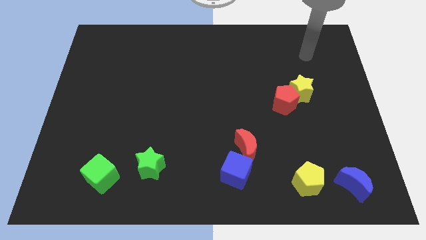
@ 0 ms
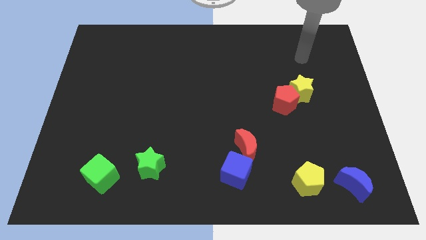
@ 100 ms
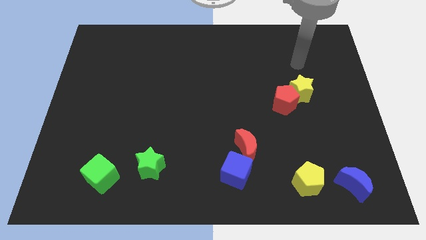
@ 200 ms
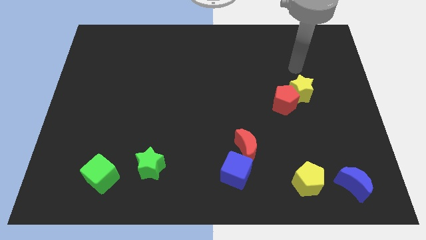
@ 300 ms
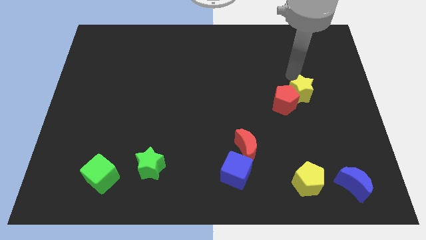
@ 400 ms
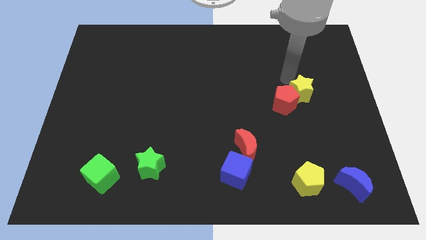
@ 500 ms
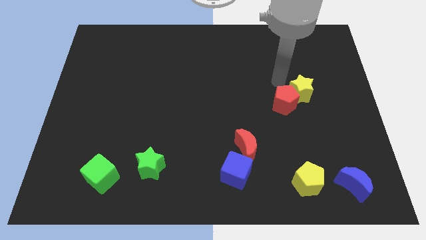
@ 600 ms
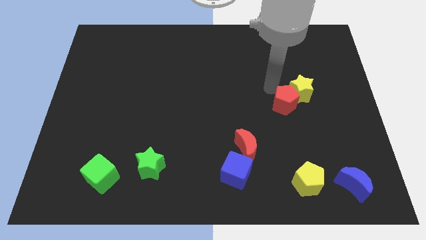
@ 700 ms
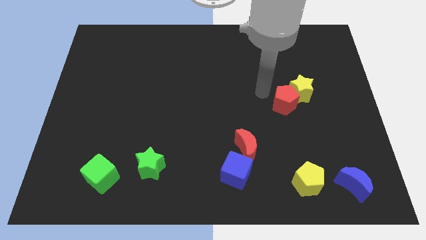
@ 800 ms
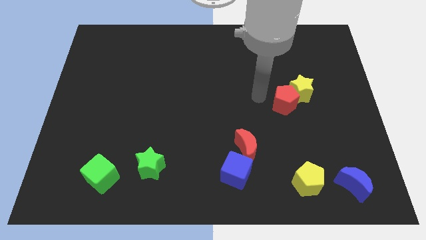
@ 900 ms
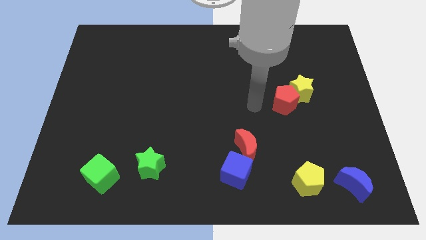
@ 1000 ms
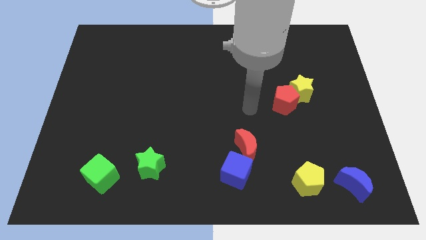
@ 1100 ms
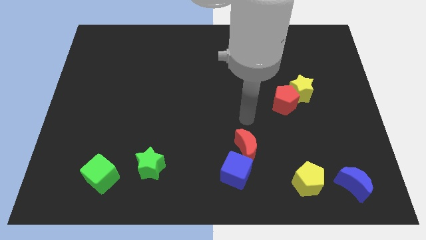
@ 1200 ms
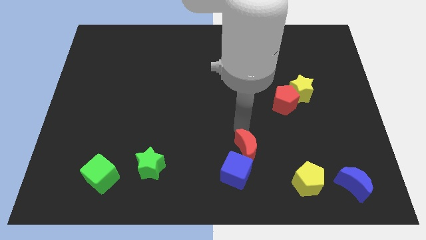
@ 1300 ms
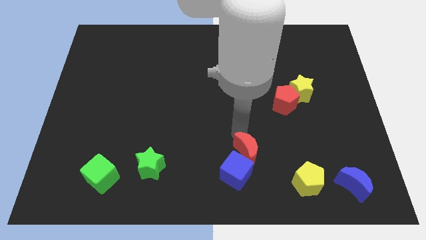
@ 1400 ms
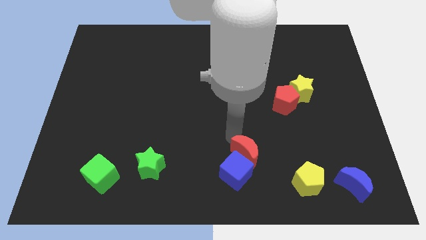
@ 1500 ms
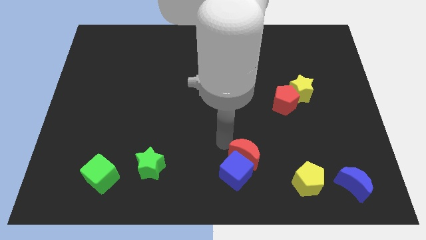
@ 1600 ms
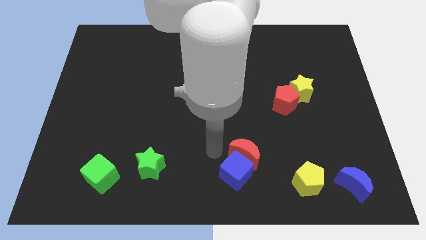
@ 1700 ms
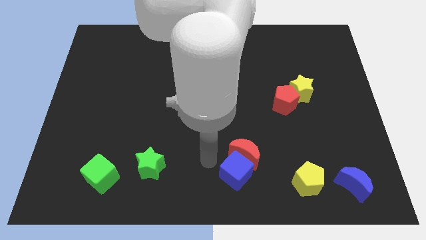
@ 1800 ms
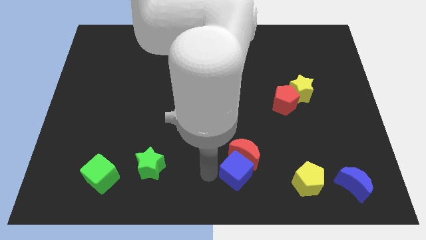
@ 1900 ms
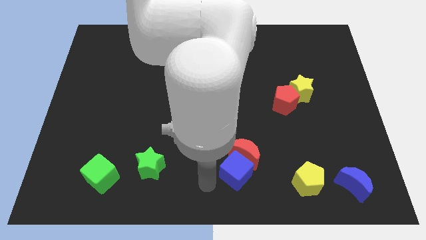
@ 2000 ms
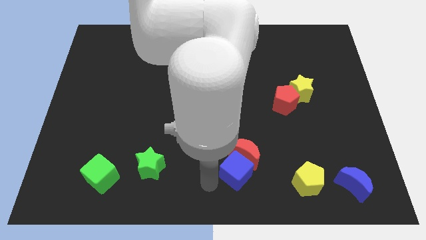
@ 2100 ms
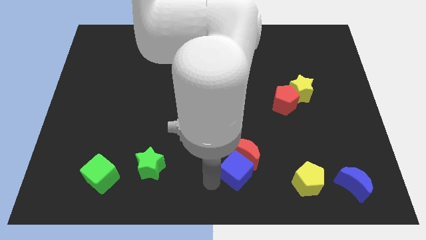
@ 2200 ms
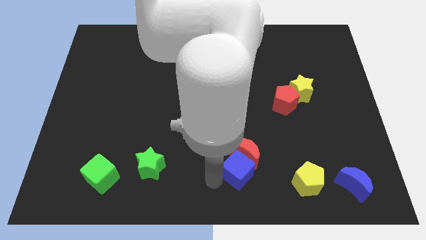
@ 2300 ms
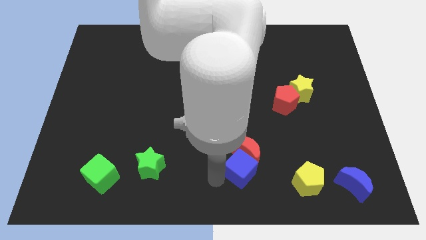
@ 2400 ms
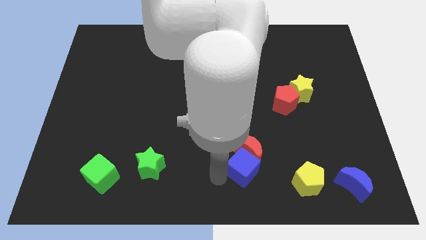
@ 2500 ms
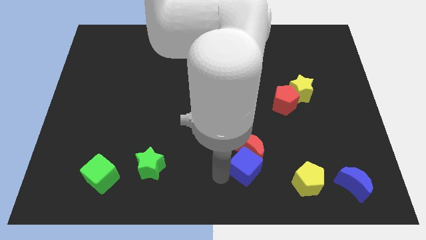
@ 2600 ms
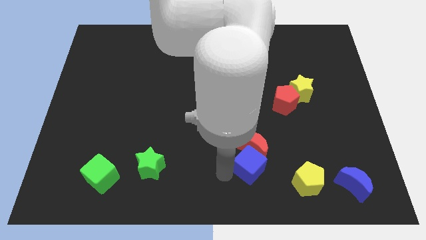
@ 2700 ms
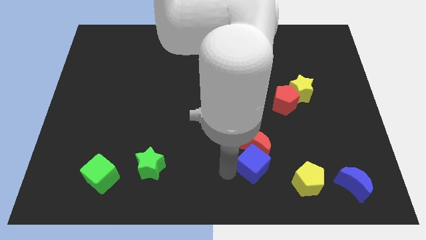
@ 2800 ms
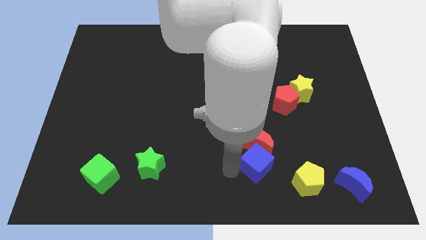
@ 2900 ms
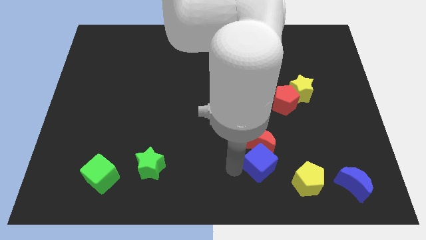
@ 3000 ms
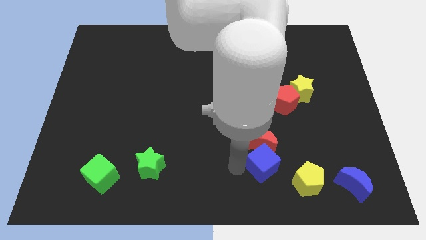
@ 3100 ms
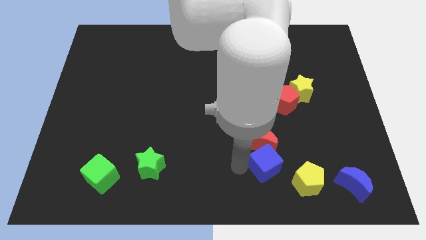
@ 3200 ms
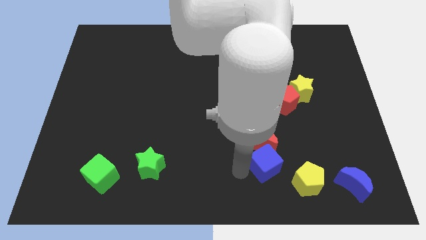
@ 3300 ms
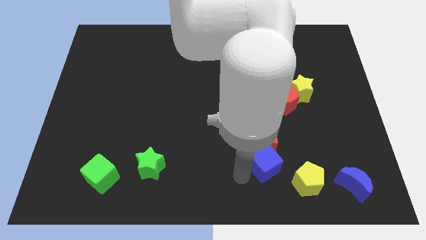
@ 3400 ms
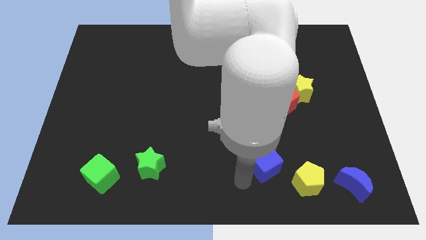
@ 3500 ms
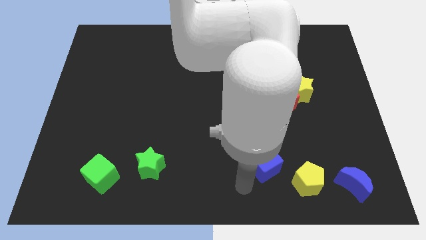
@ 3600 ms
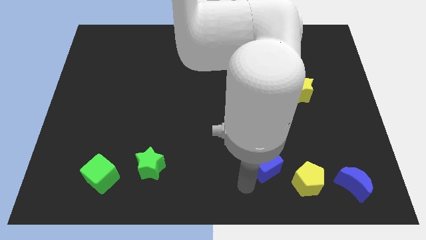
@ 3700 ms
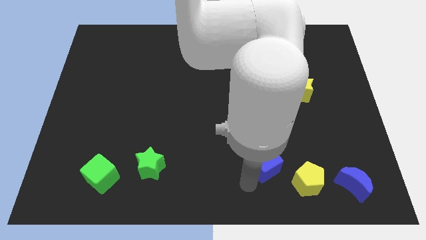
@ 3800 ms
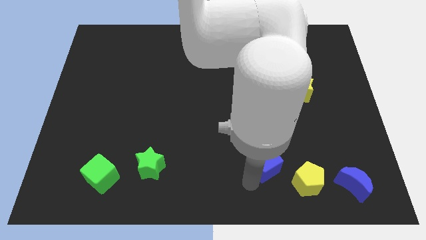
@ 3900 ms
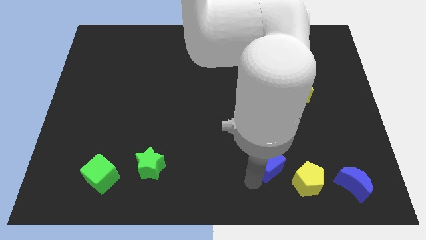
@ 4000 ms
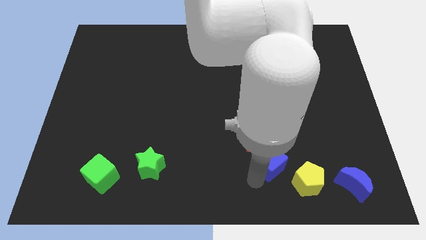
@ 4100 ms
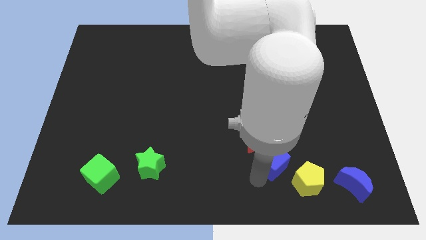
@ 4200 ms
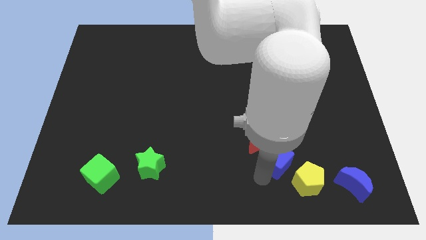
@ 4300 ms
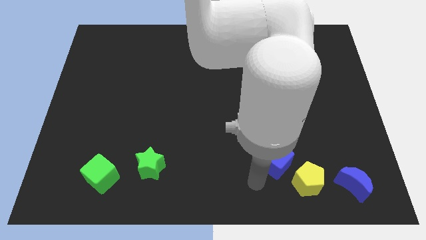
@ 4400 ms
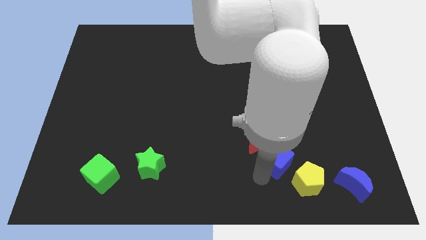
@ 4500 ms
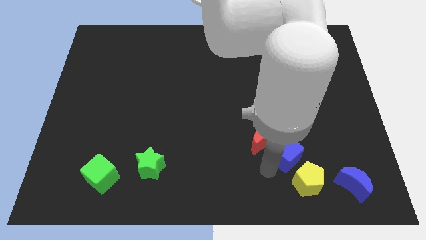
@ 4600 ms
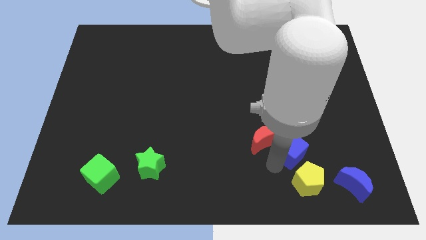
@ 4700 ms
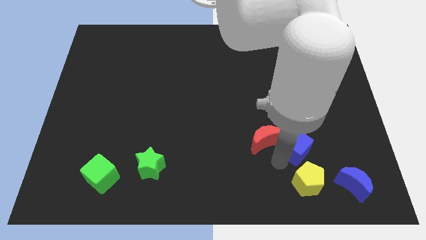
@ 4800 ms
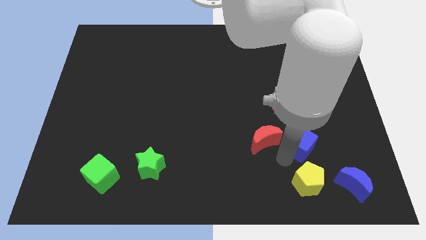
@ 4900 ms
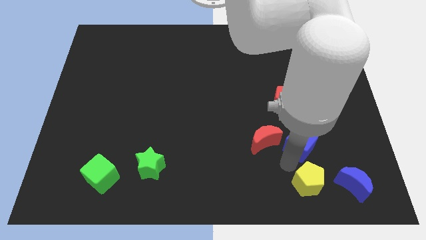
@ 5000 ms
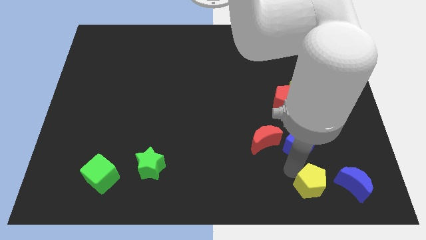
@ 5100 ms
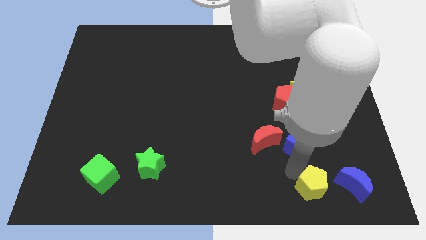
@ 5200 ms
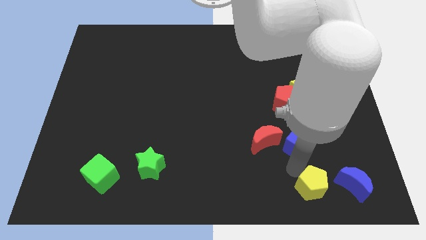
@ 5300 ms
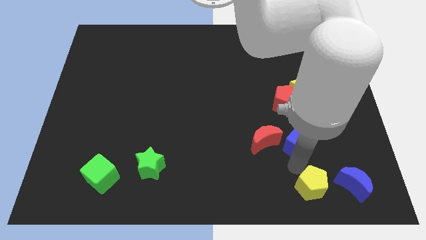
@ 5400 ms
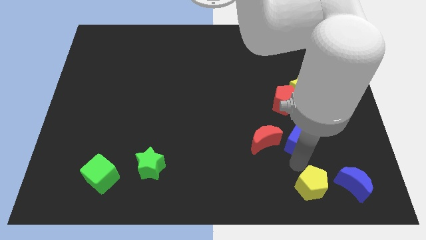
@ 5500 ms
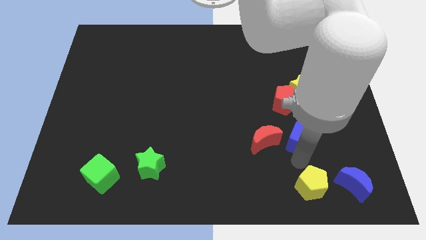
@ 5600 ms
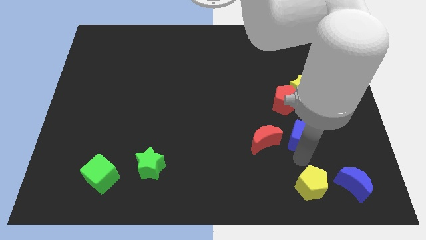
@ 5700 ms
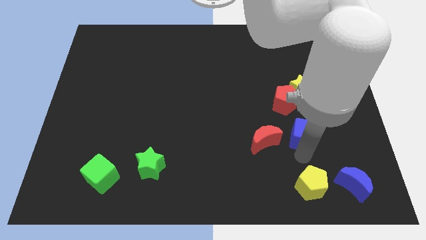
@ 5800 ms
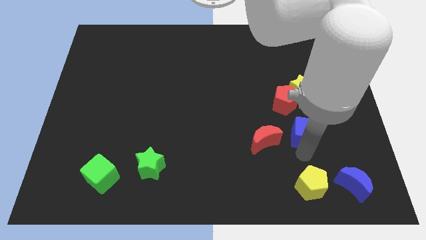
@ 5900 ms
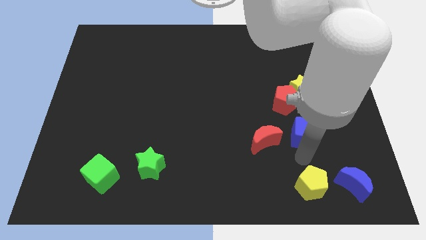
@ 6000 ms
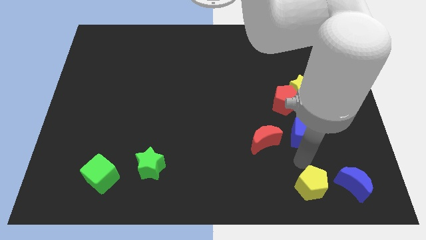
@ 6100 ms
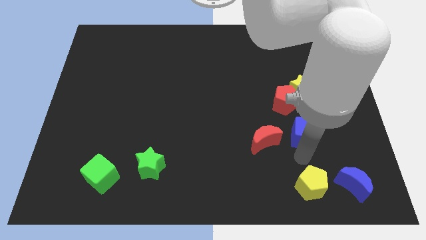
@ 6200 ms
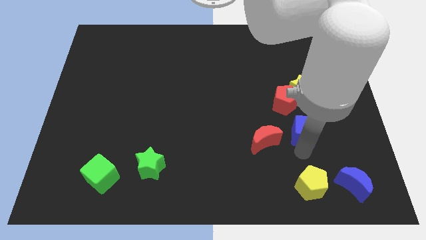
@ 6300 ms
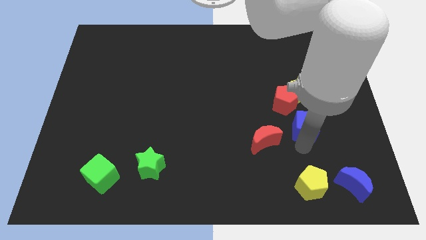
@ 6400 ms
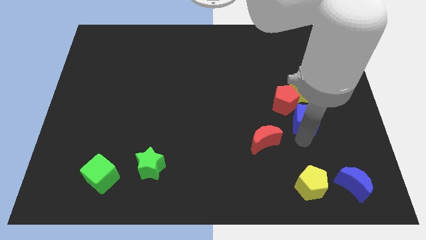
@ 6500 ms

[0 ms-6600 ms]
push the blue cube diagonally up and to the right

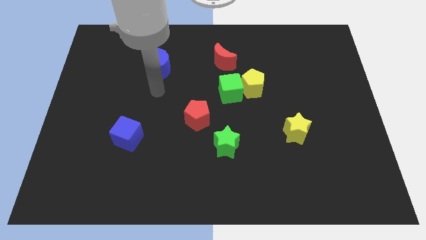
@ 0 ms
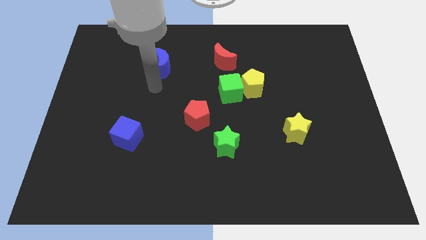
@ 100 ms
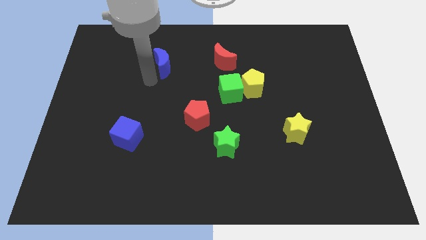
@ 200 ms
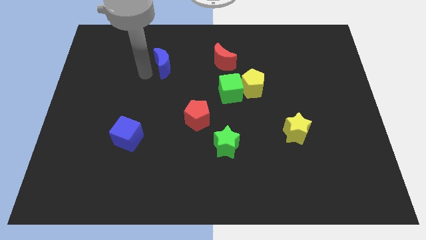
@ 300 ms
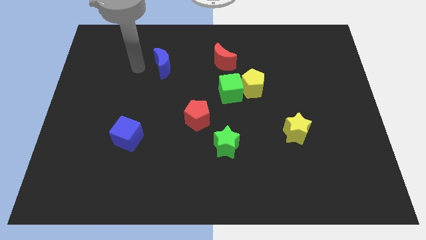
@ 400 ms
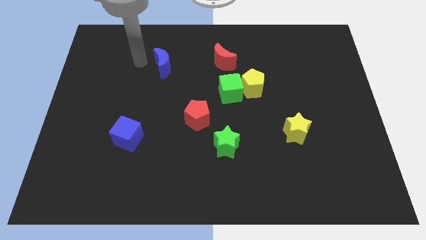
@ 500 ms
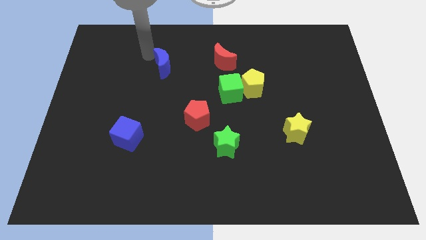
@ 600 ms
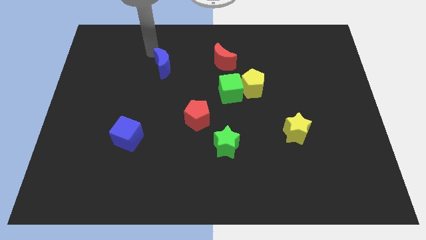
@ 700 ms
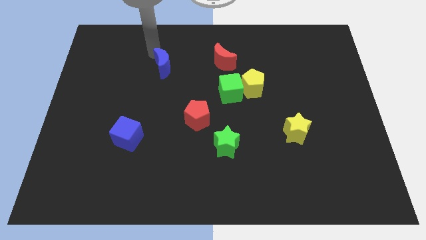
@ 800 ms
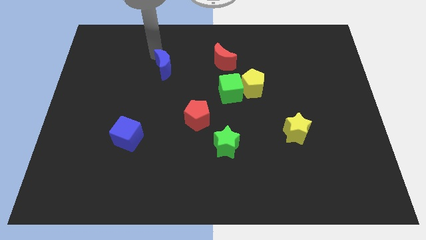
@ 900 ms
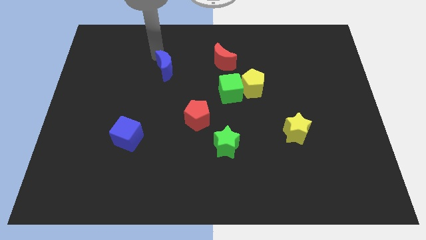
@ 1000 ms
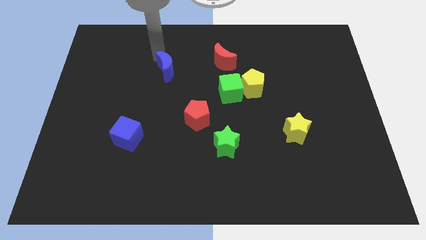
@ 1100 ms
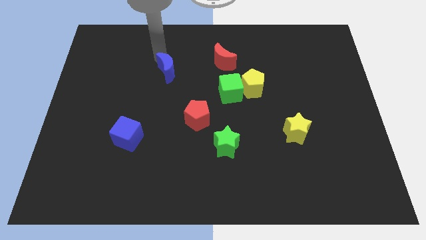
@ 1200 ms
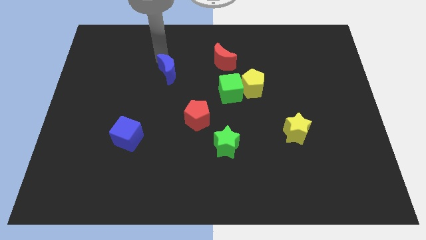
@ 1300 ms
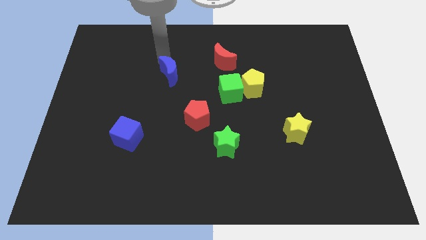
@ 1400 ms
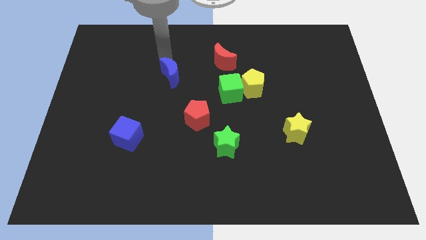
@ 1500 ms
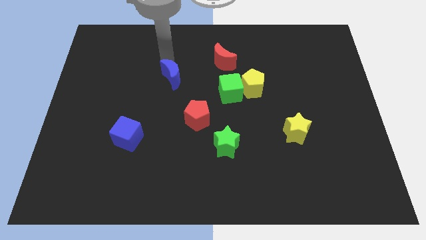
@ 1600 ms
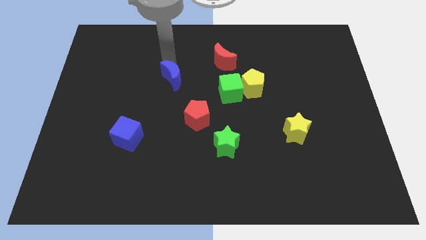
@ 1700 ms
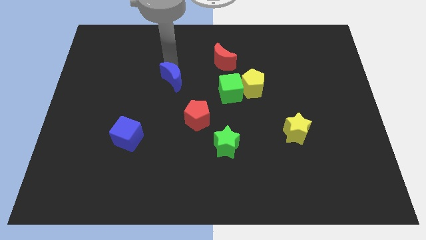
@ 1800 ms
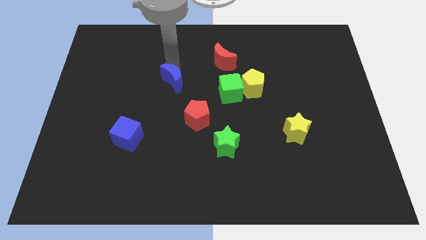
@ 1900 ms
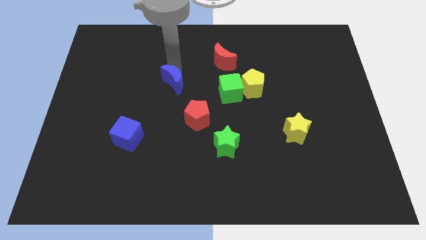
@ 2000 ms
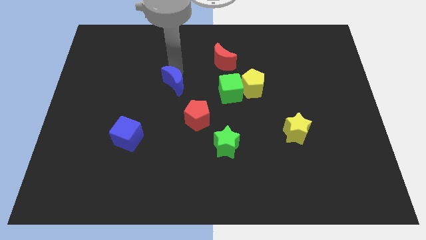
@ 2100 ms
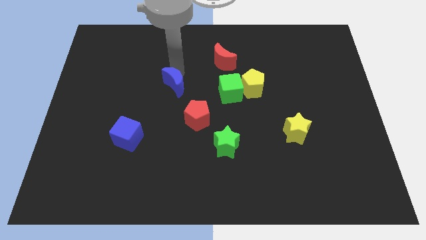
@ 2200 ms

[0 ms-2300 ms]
slightly push the blue moon downwards and to the right diagonally
